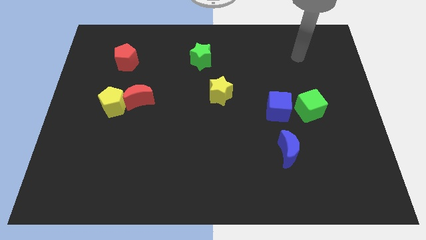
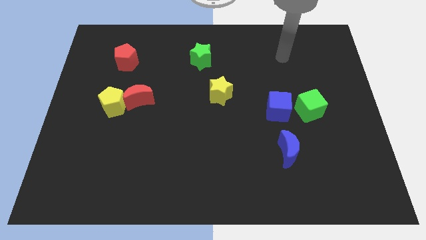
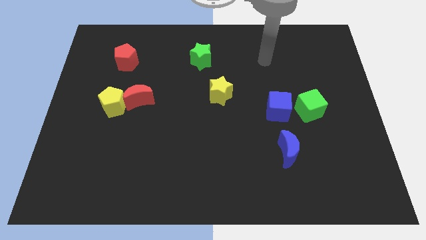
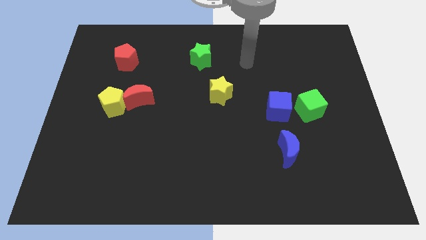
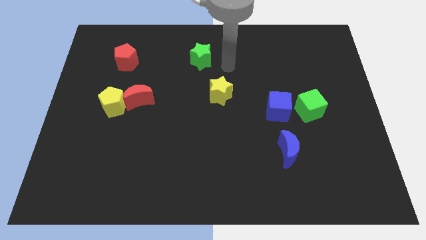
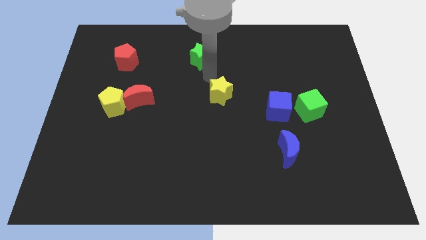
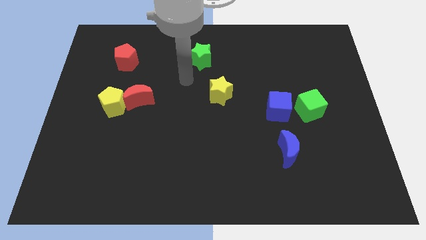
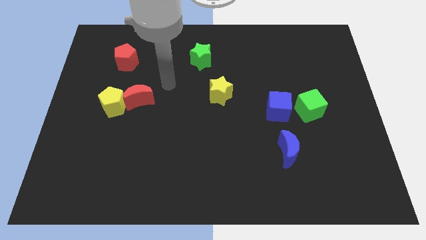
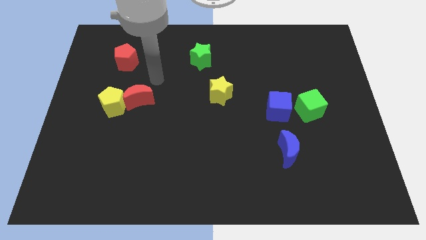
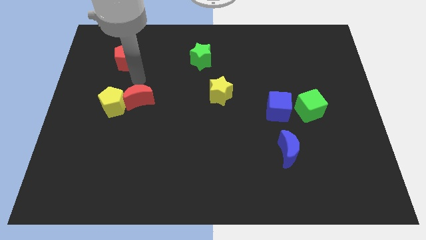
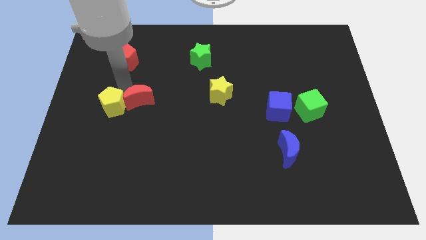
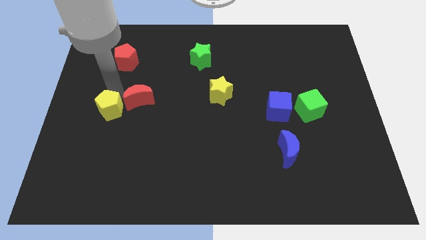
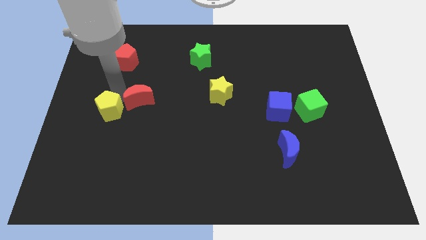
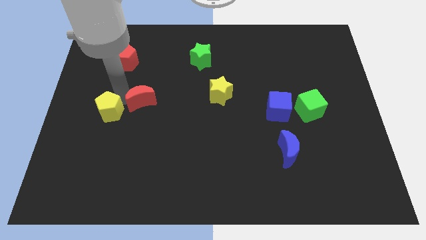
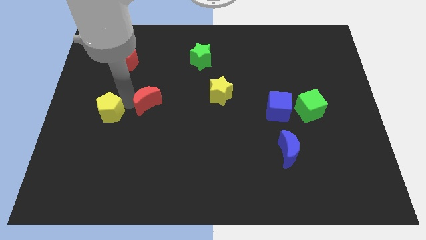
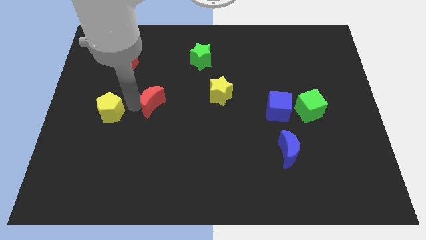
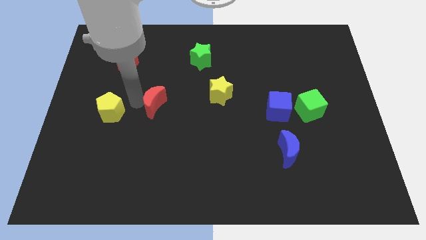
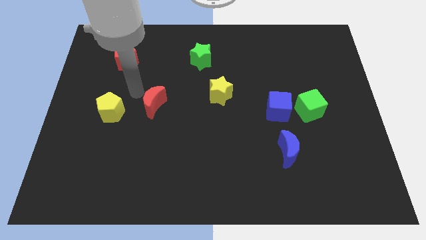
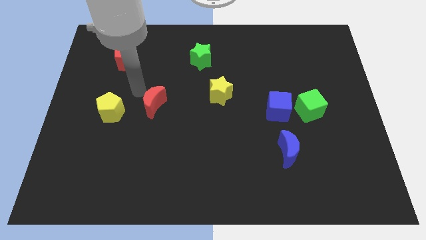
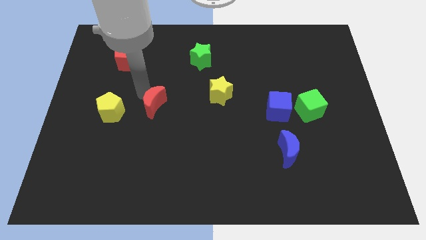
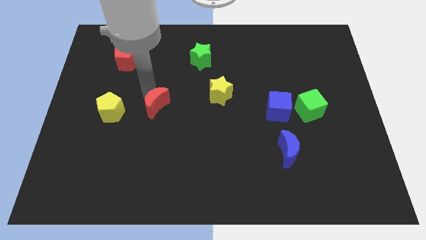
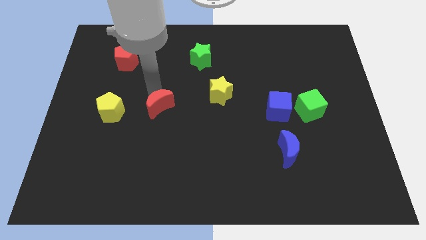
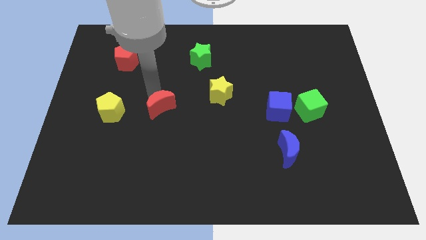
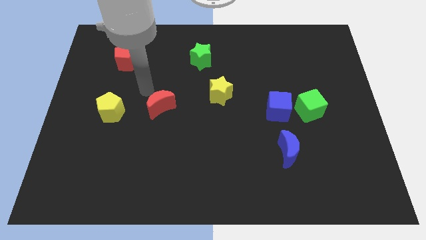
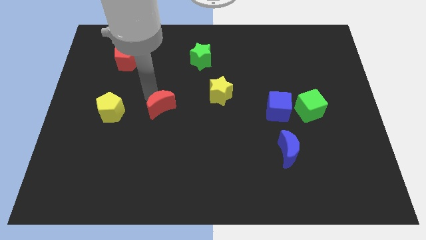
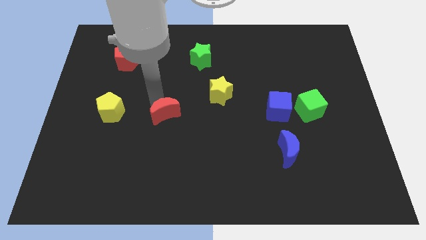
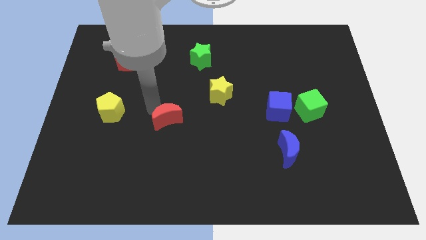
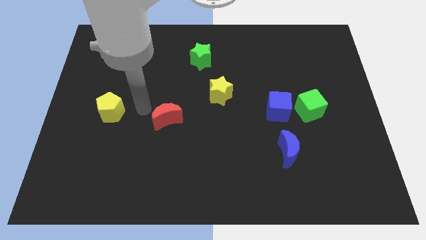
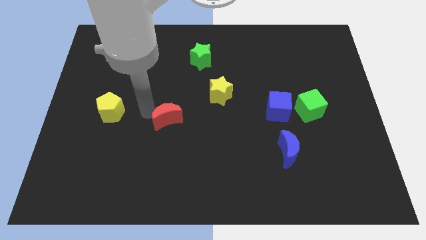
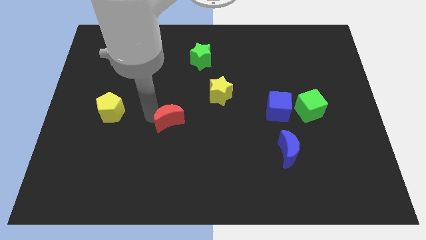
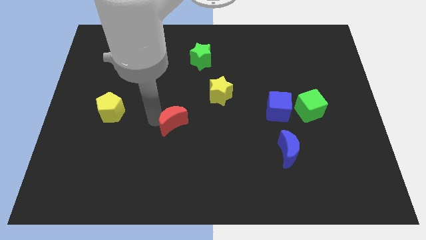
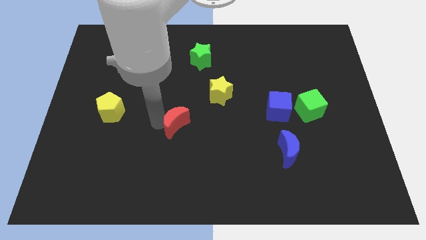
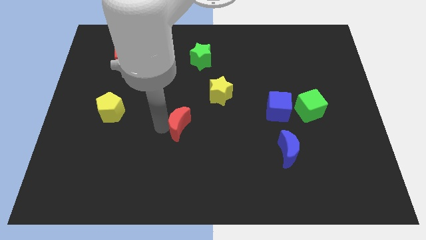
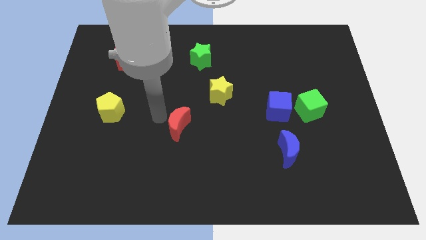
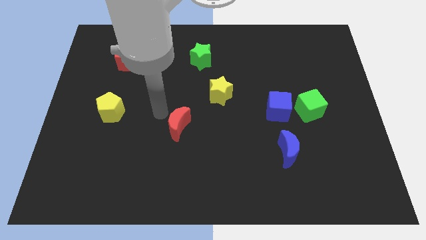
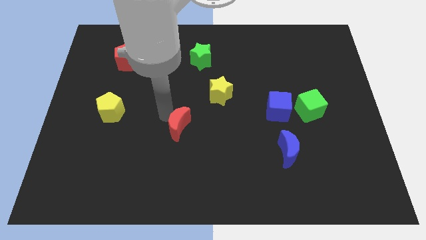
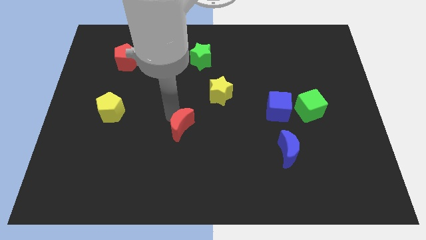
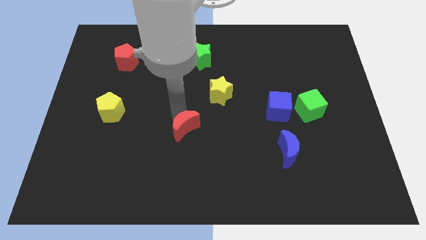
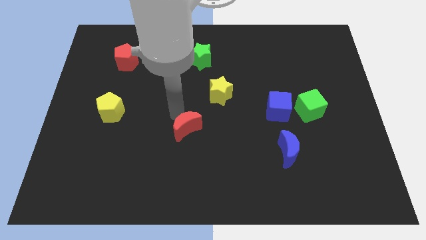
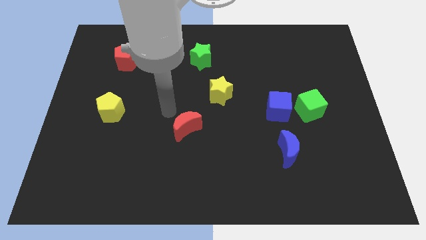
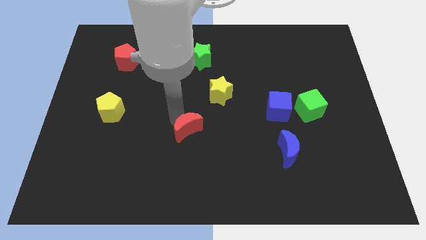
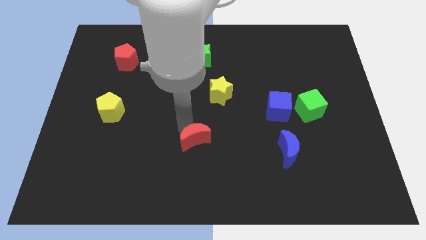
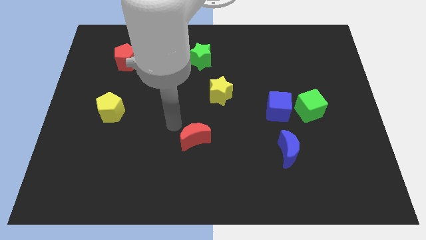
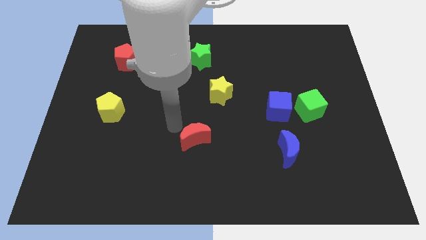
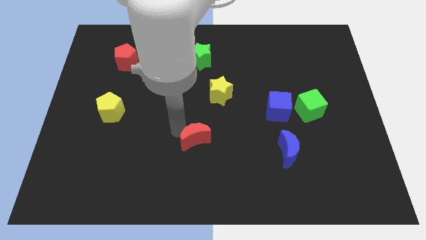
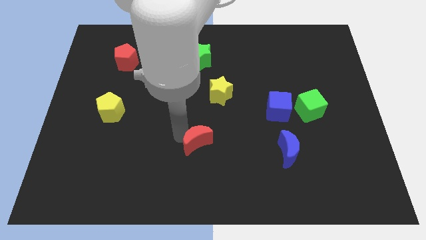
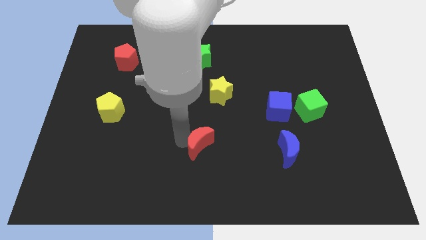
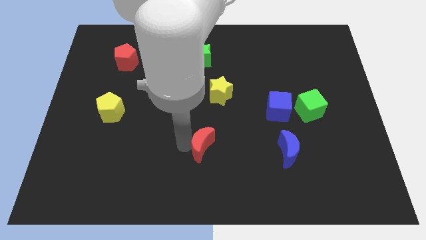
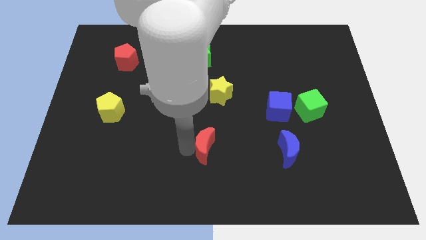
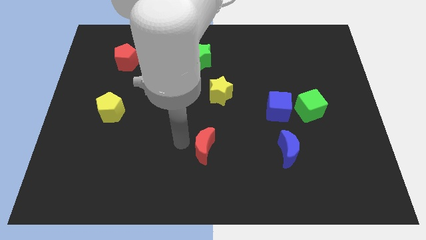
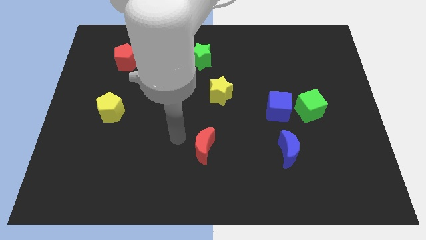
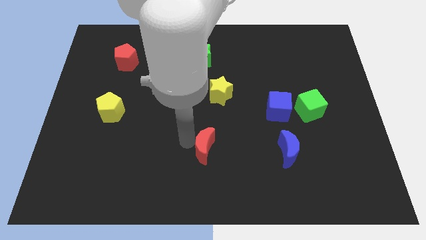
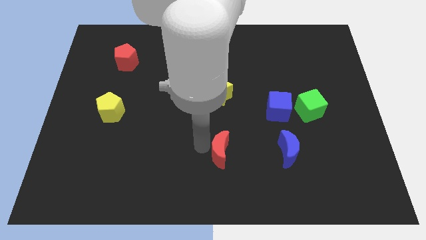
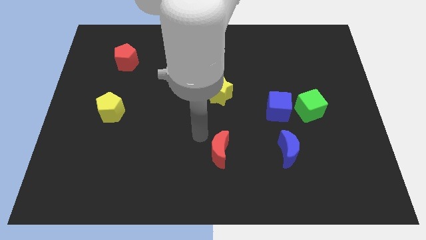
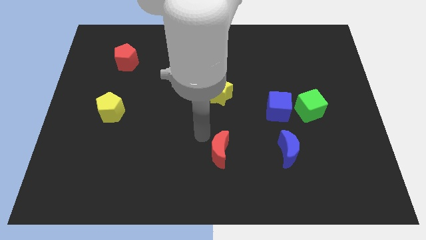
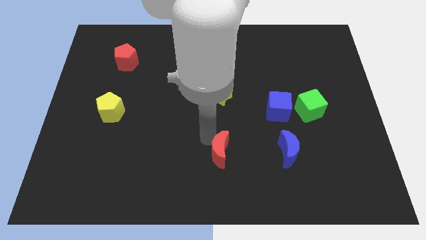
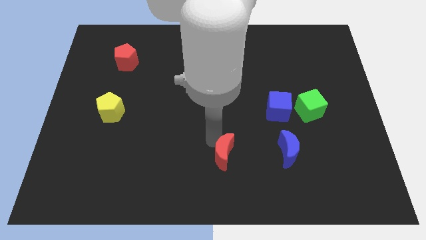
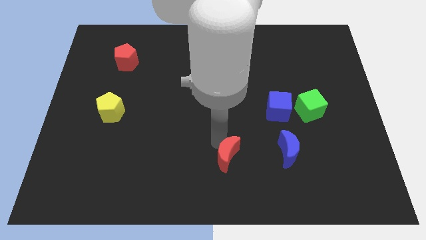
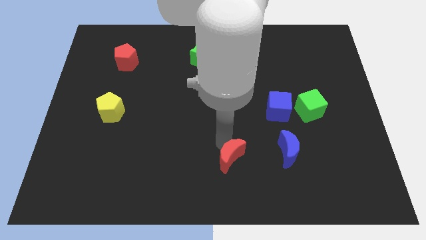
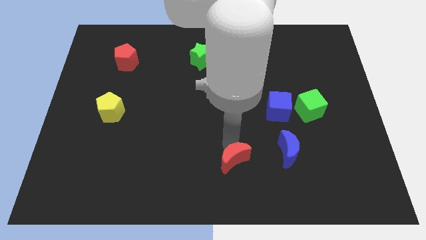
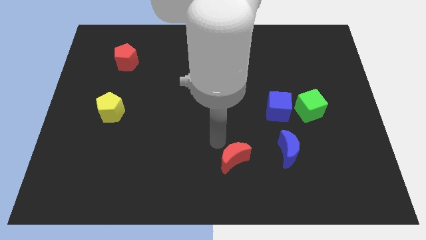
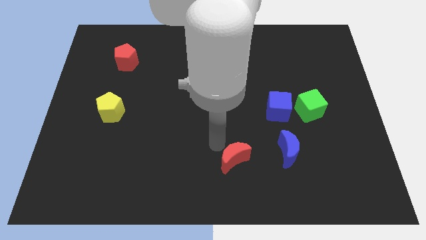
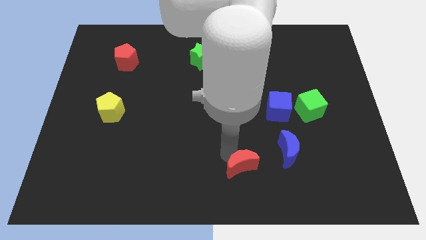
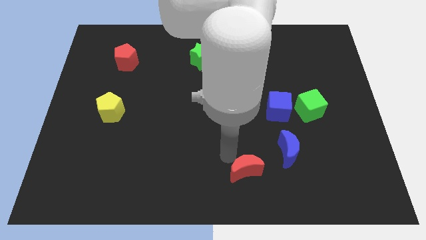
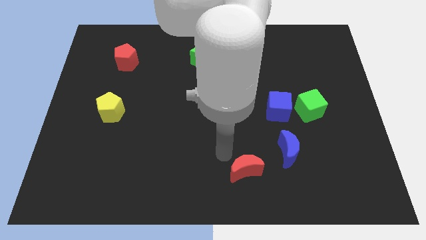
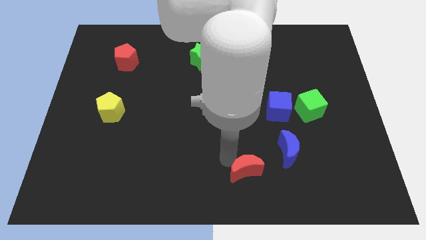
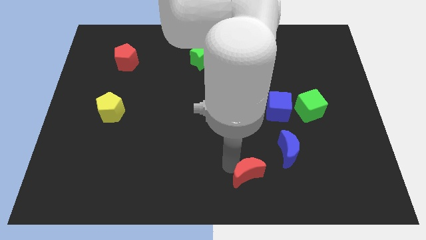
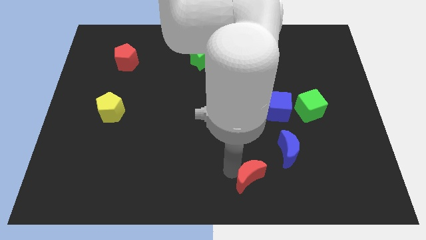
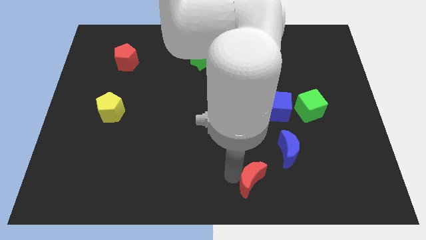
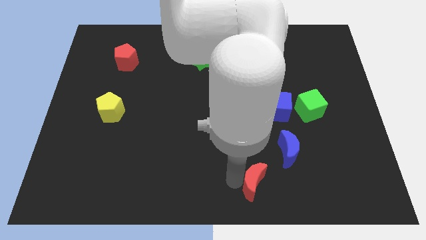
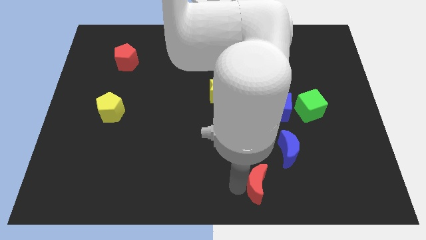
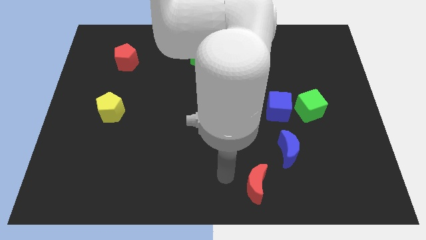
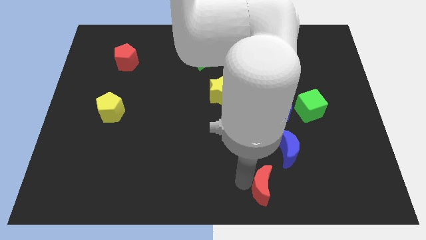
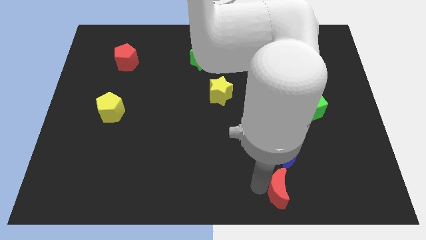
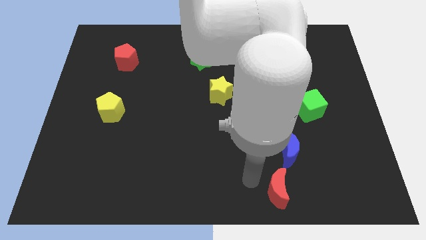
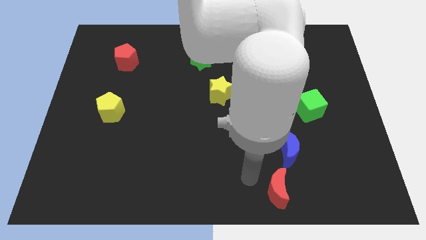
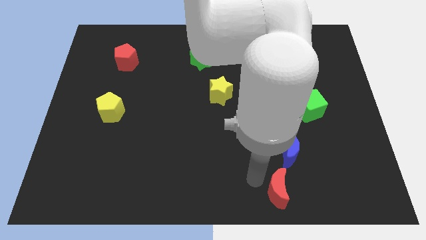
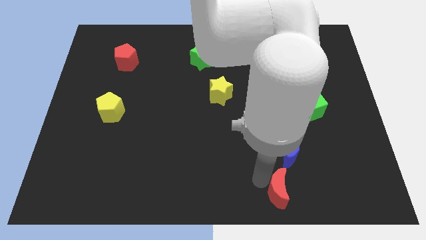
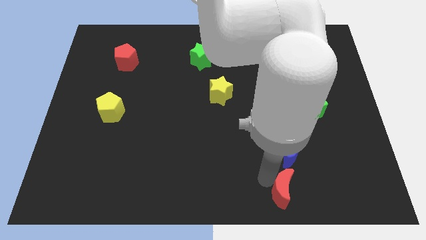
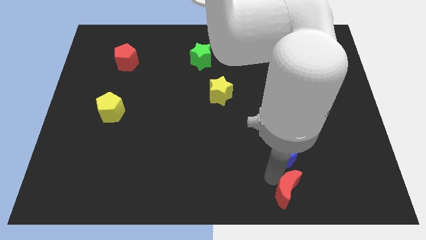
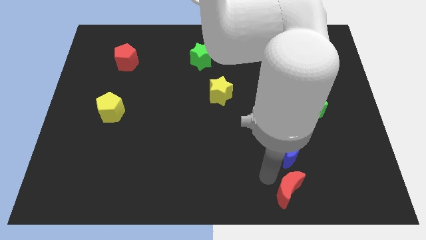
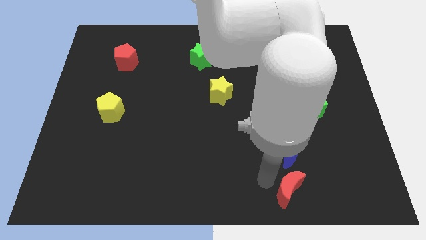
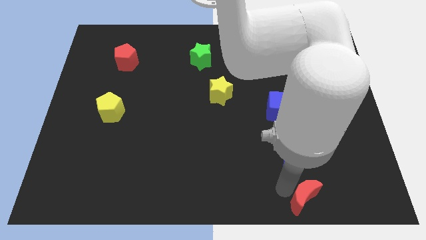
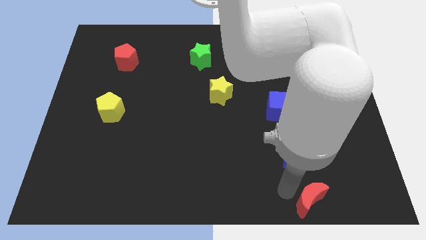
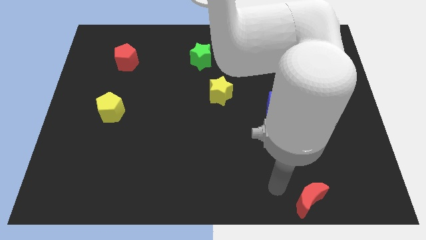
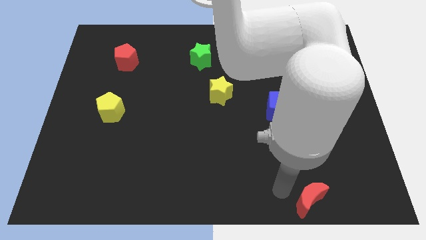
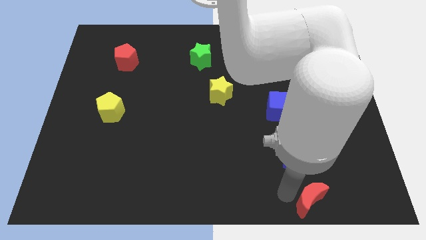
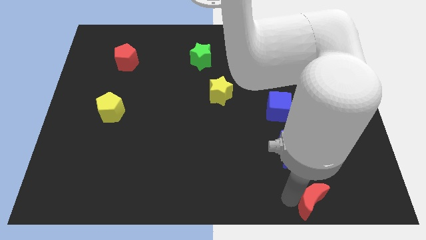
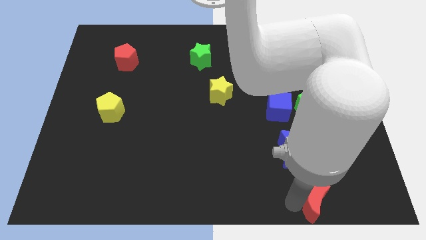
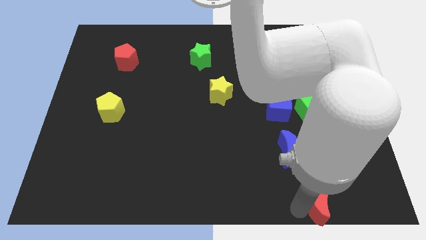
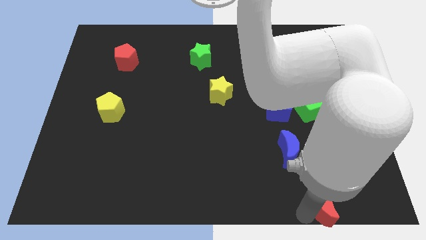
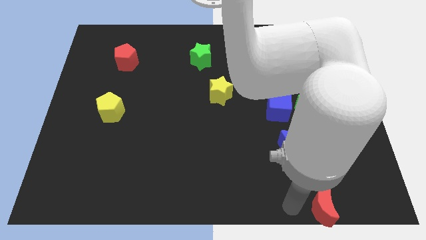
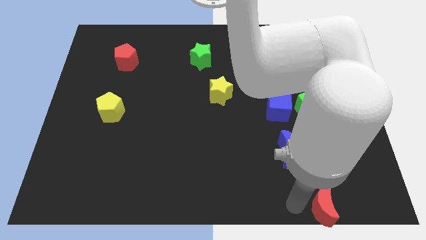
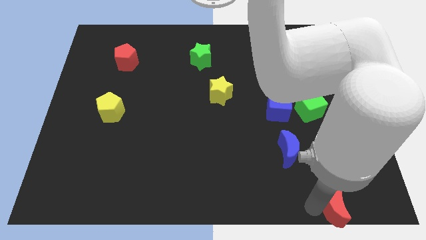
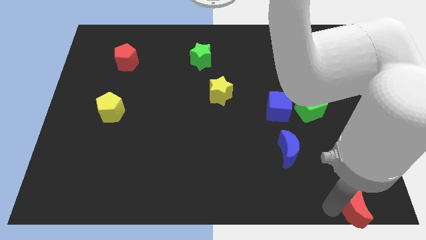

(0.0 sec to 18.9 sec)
move the red moon to the lower right corner
